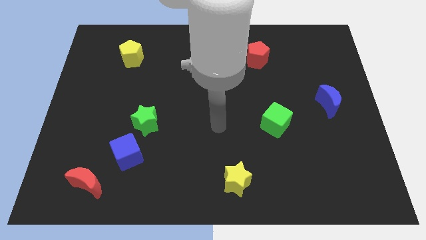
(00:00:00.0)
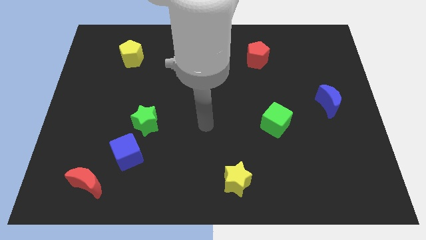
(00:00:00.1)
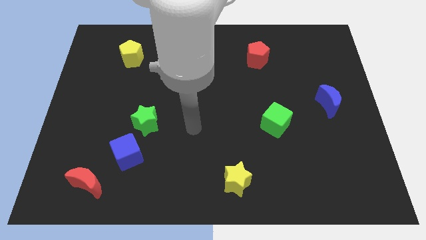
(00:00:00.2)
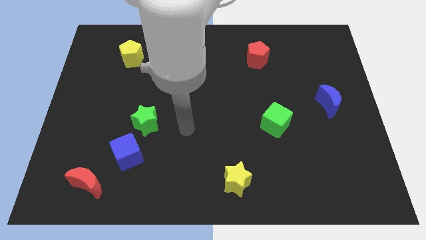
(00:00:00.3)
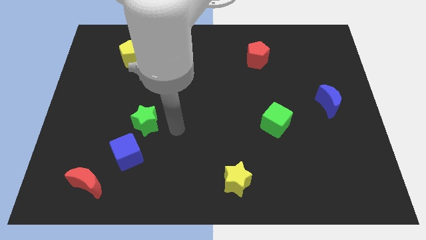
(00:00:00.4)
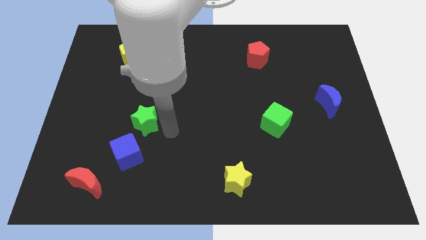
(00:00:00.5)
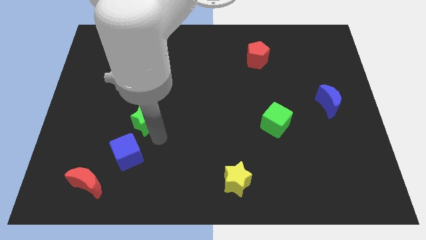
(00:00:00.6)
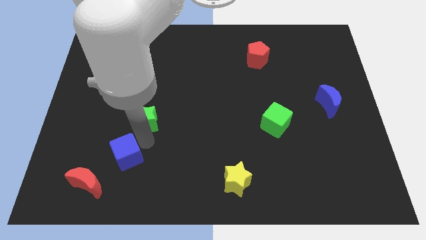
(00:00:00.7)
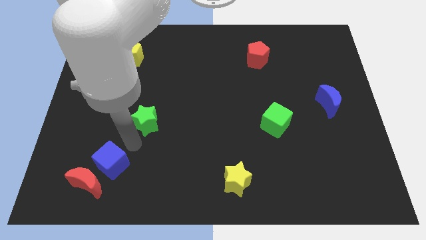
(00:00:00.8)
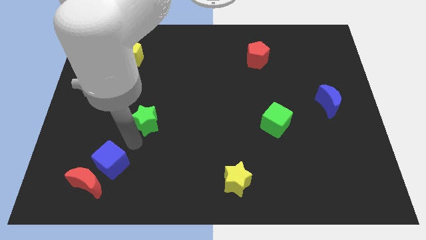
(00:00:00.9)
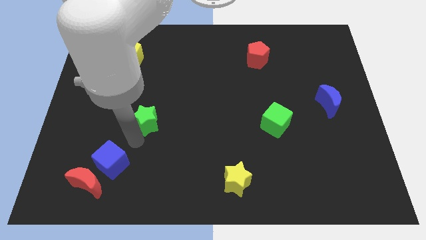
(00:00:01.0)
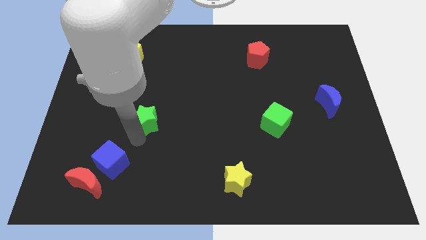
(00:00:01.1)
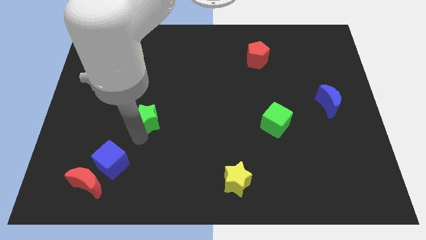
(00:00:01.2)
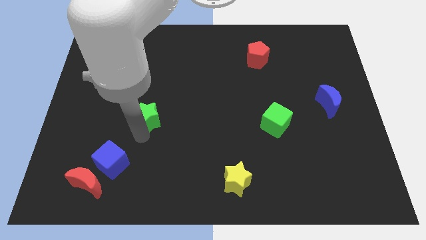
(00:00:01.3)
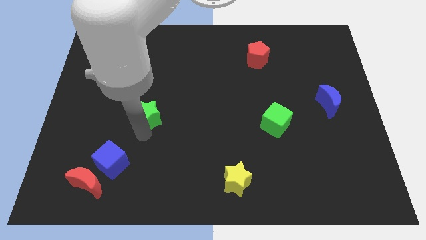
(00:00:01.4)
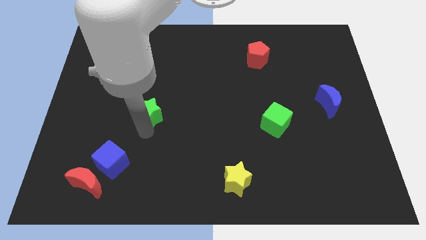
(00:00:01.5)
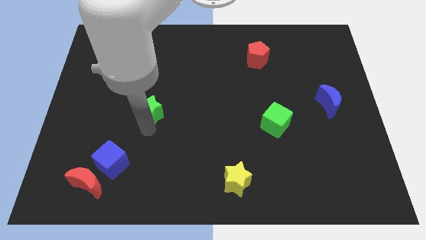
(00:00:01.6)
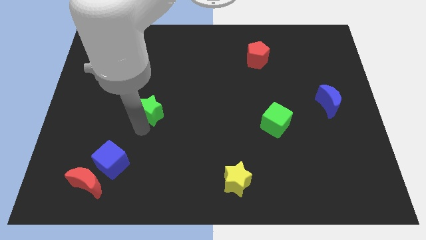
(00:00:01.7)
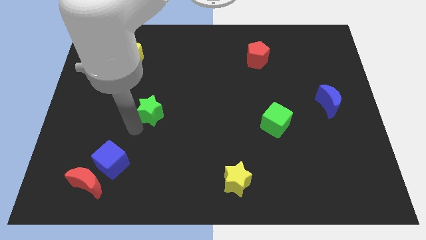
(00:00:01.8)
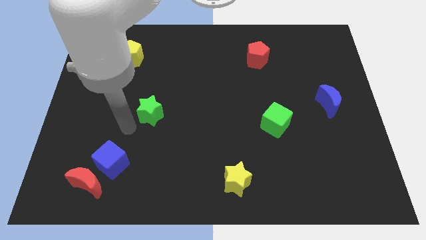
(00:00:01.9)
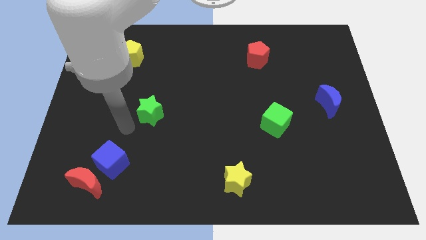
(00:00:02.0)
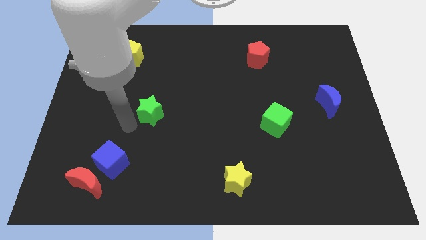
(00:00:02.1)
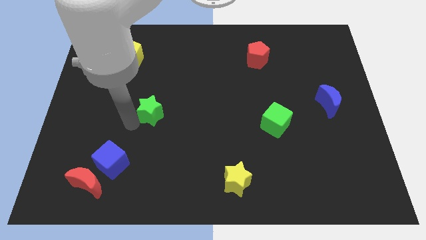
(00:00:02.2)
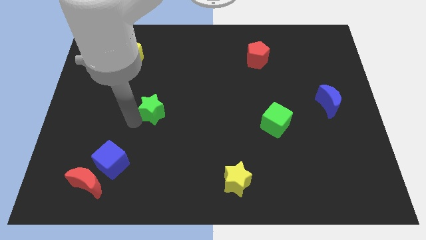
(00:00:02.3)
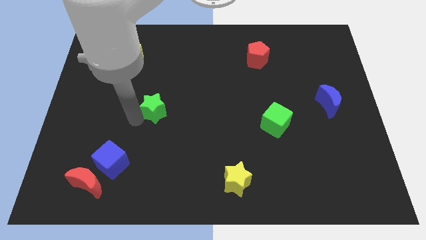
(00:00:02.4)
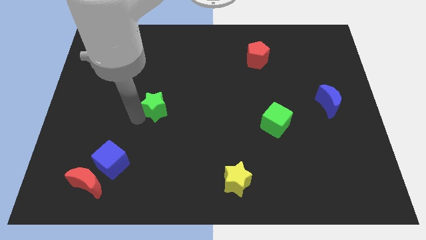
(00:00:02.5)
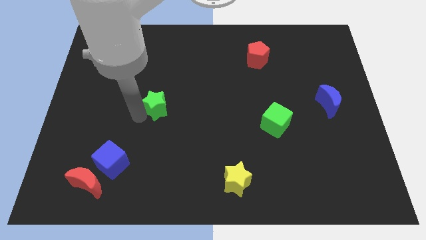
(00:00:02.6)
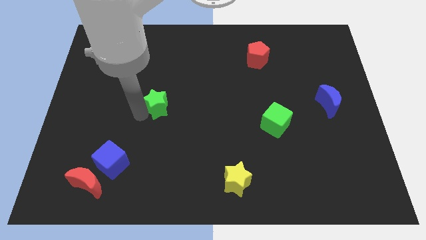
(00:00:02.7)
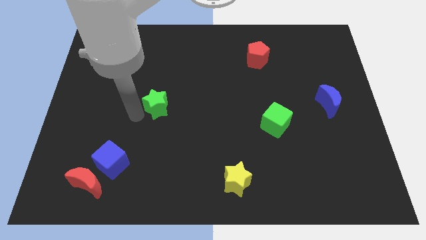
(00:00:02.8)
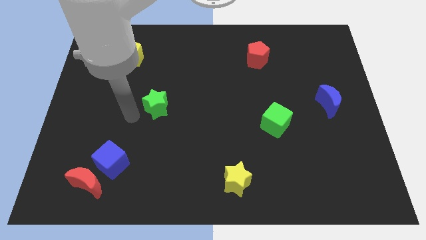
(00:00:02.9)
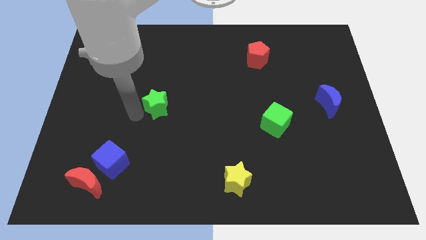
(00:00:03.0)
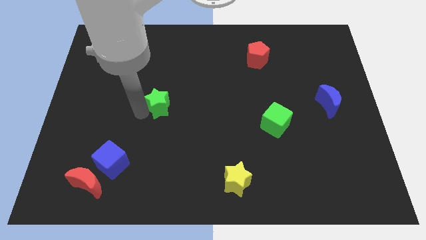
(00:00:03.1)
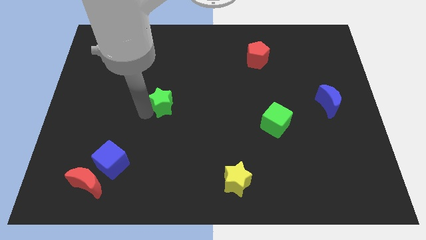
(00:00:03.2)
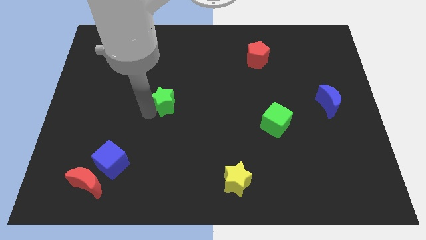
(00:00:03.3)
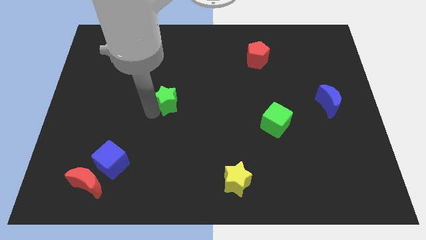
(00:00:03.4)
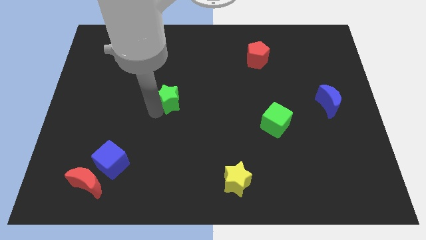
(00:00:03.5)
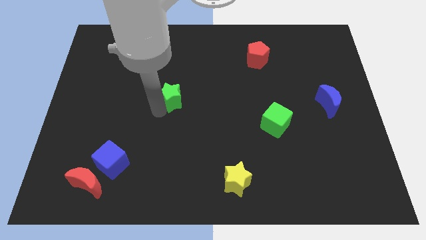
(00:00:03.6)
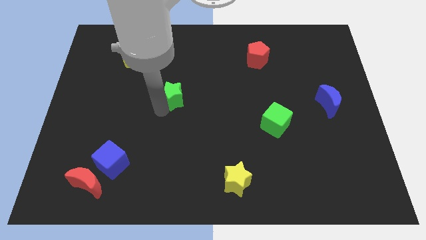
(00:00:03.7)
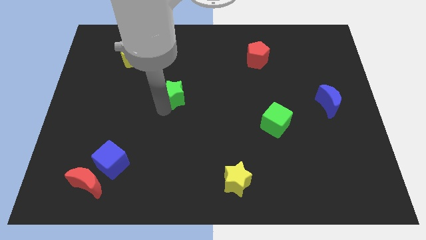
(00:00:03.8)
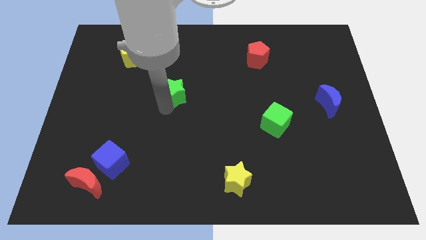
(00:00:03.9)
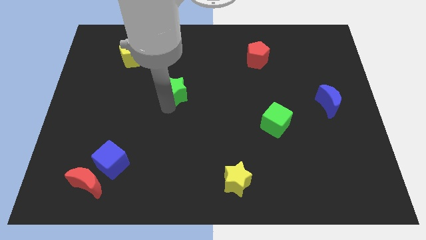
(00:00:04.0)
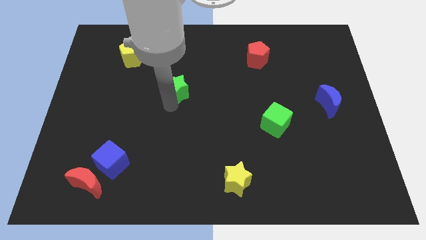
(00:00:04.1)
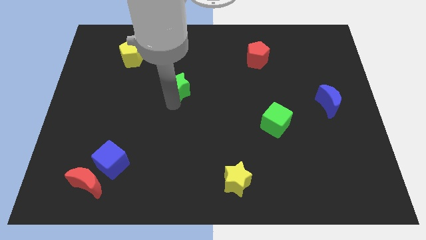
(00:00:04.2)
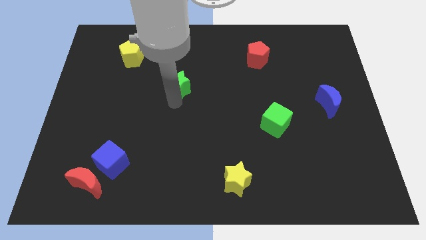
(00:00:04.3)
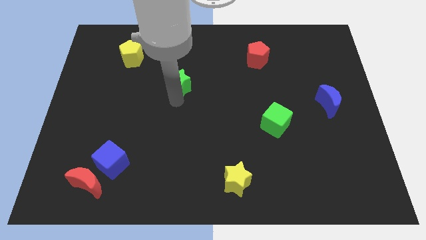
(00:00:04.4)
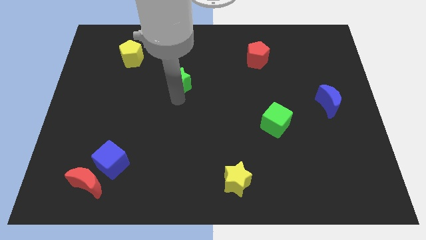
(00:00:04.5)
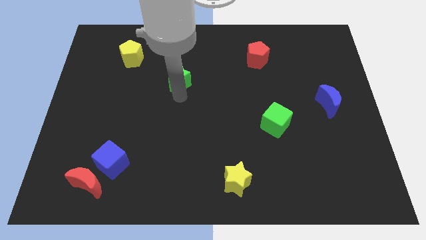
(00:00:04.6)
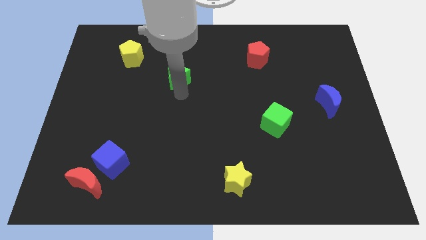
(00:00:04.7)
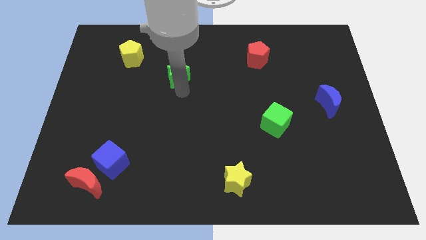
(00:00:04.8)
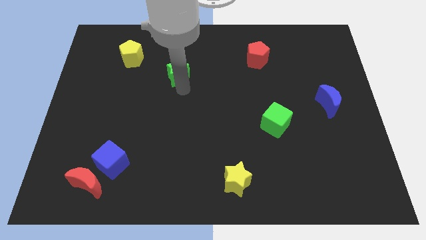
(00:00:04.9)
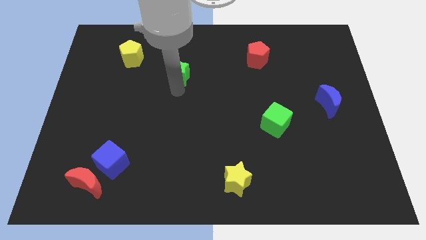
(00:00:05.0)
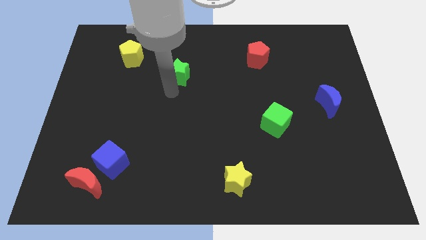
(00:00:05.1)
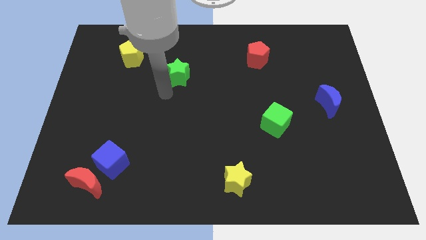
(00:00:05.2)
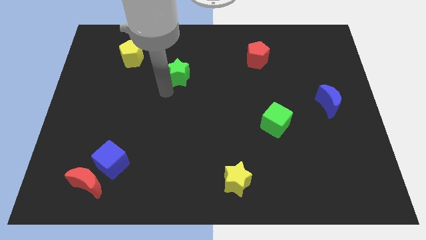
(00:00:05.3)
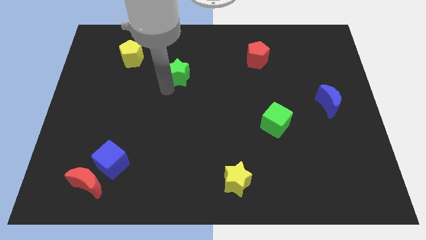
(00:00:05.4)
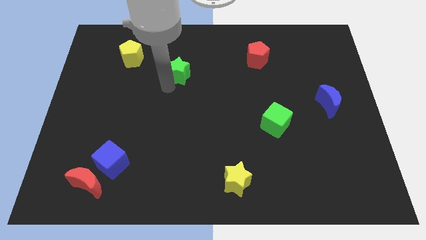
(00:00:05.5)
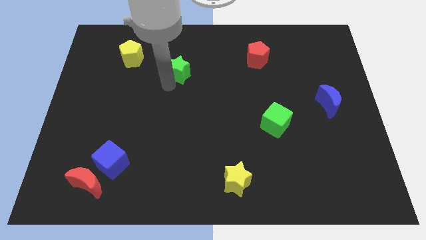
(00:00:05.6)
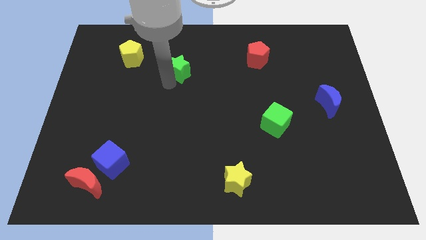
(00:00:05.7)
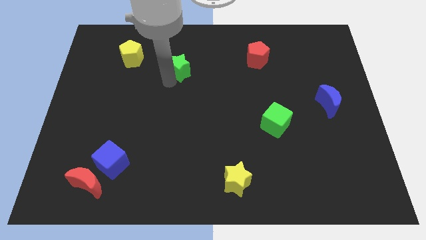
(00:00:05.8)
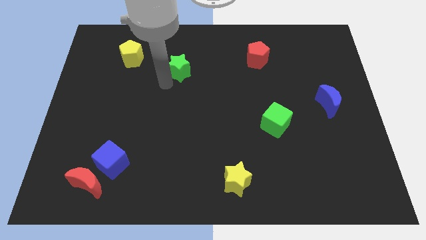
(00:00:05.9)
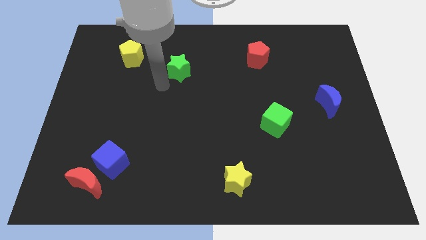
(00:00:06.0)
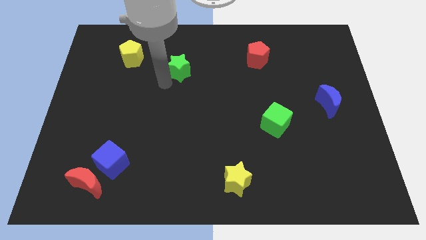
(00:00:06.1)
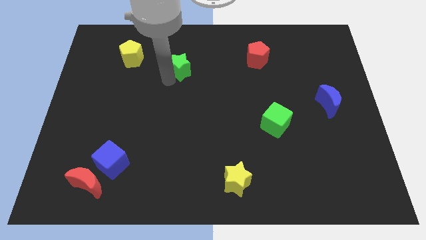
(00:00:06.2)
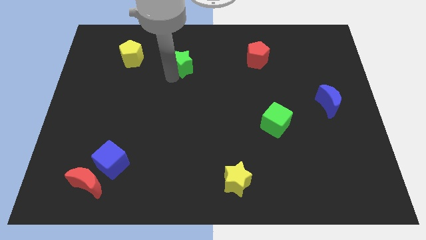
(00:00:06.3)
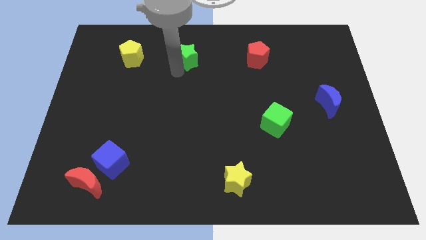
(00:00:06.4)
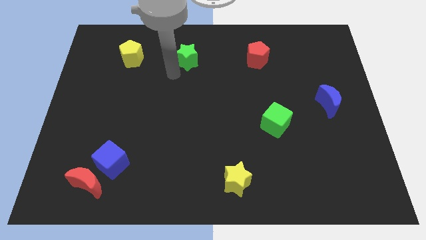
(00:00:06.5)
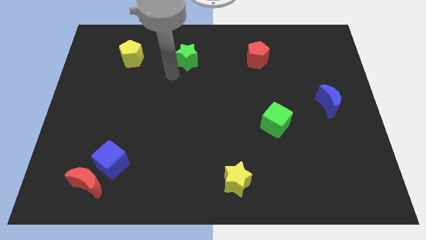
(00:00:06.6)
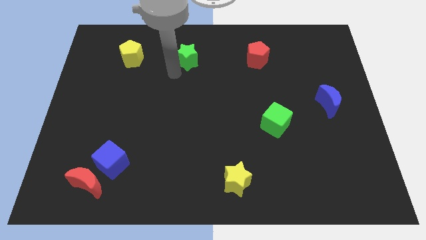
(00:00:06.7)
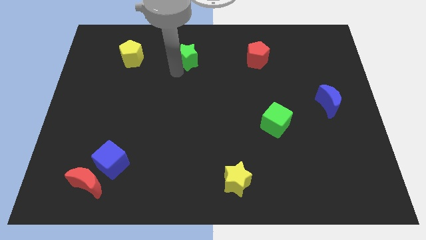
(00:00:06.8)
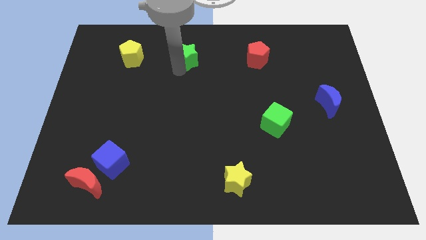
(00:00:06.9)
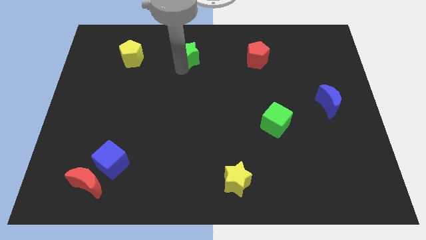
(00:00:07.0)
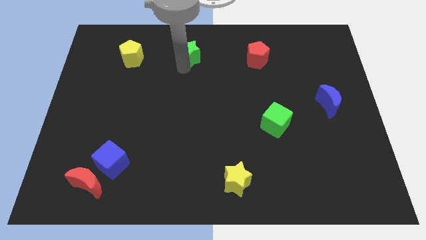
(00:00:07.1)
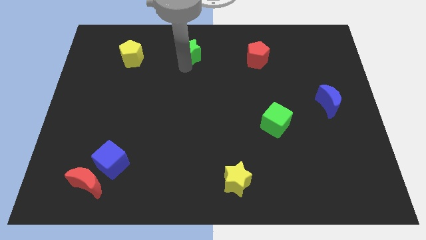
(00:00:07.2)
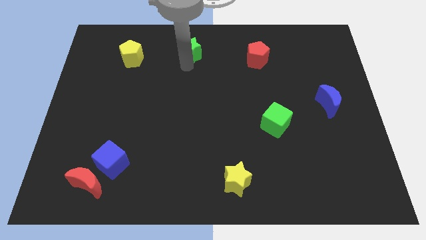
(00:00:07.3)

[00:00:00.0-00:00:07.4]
move the green star to the towards your base
